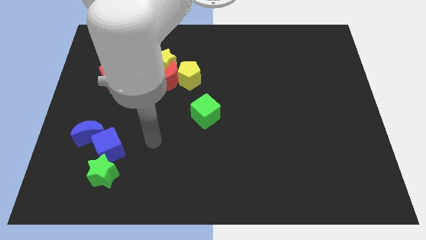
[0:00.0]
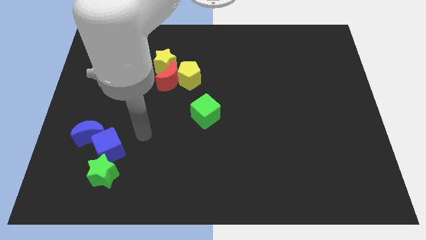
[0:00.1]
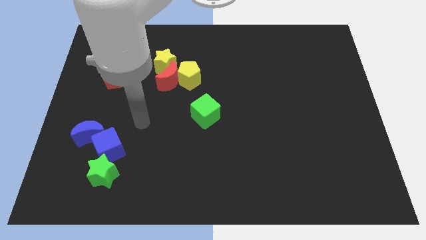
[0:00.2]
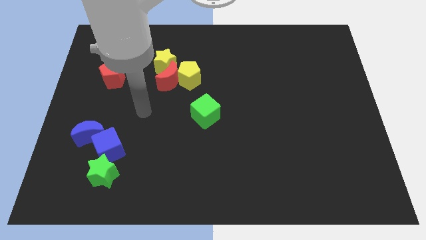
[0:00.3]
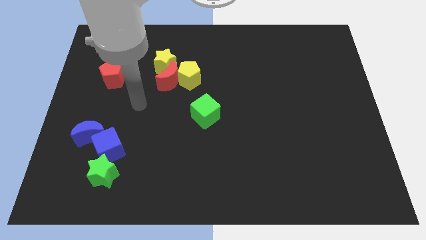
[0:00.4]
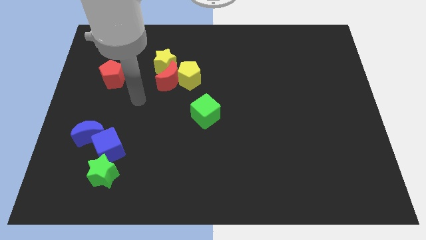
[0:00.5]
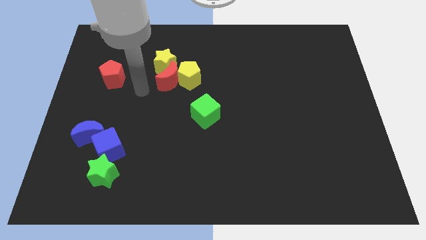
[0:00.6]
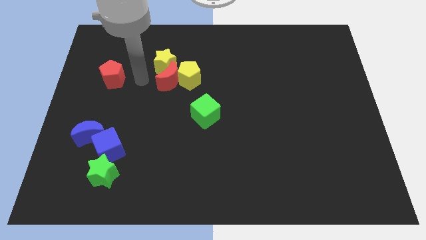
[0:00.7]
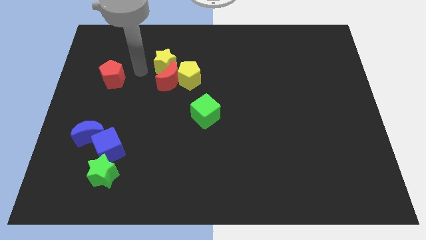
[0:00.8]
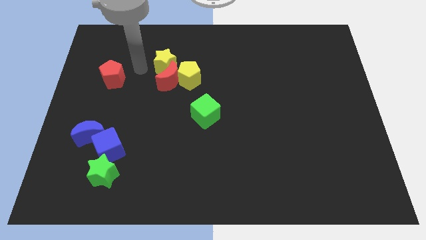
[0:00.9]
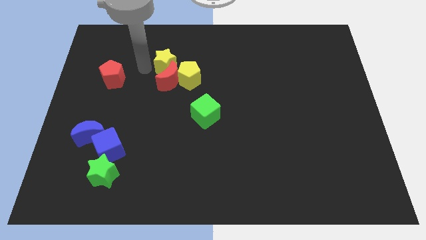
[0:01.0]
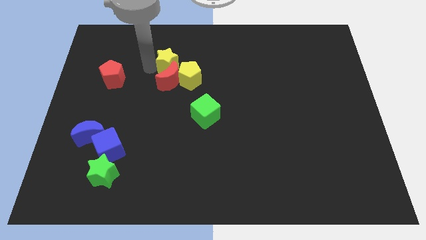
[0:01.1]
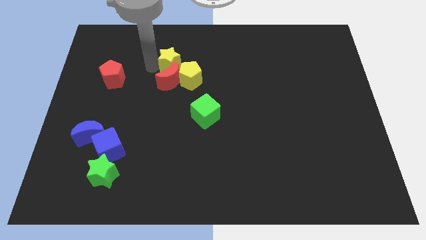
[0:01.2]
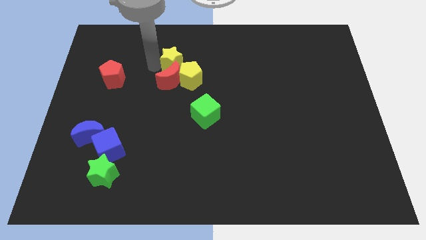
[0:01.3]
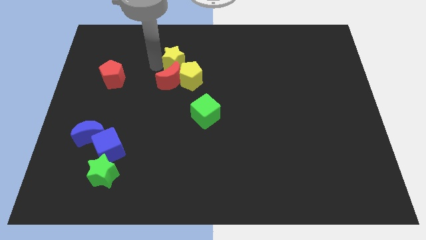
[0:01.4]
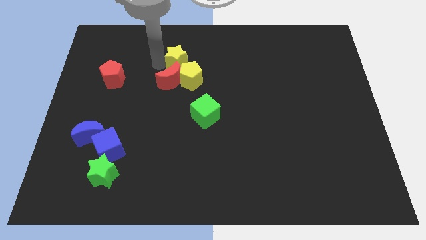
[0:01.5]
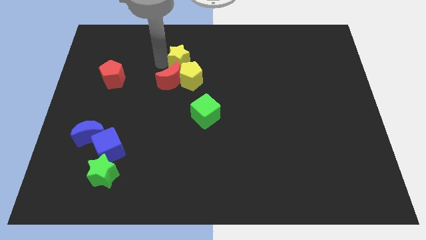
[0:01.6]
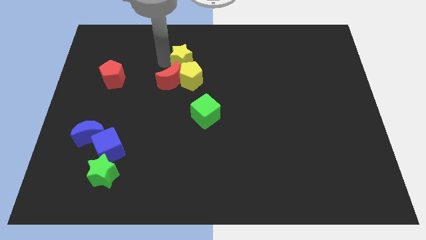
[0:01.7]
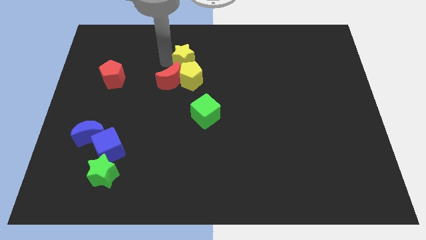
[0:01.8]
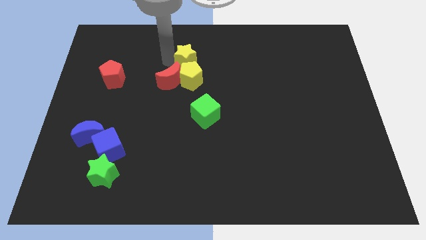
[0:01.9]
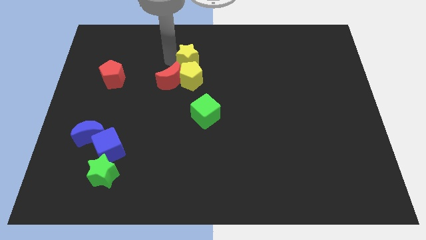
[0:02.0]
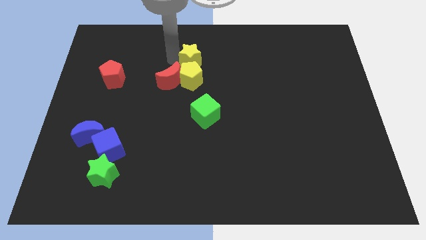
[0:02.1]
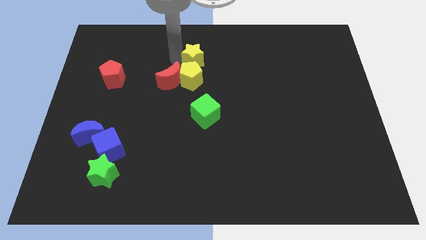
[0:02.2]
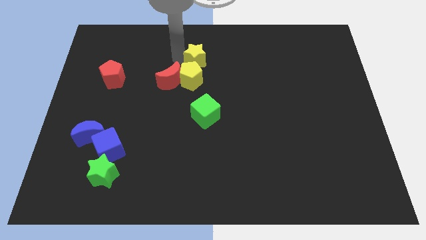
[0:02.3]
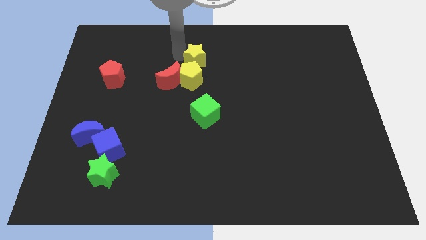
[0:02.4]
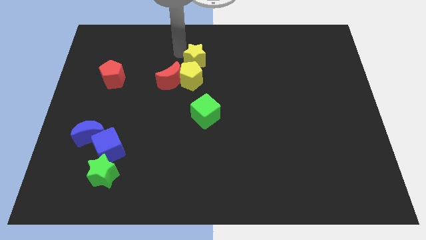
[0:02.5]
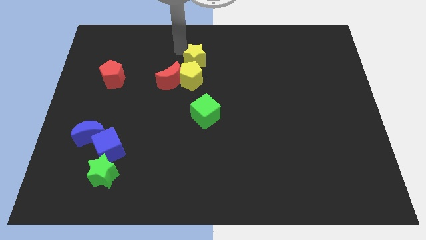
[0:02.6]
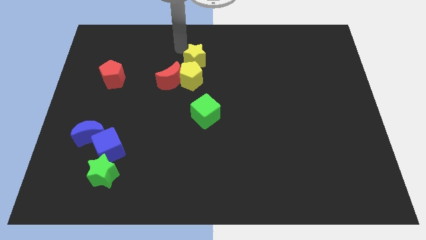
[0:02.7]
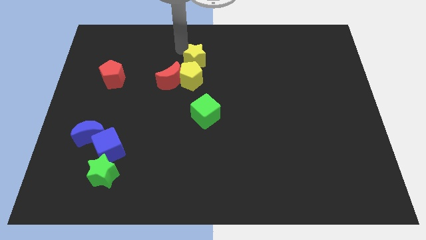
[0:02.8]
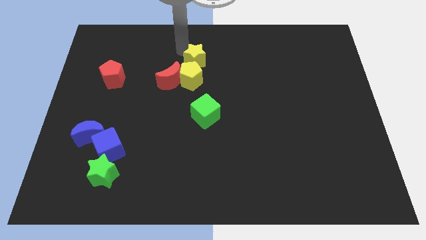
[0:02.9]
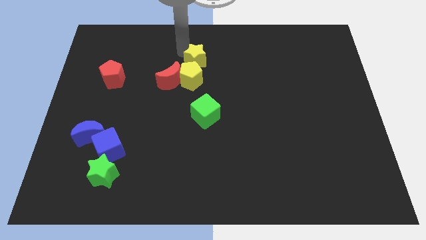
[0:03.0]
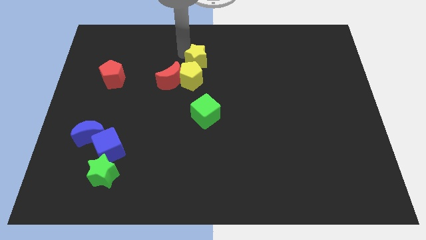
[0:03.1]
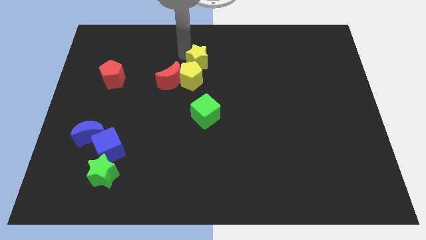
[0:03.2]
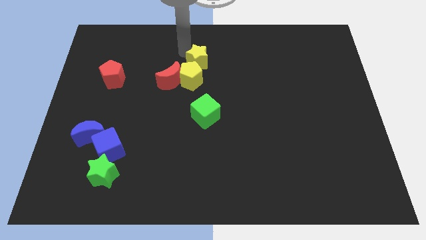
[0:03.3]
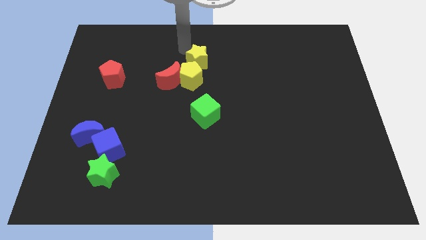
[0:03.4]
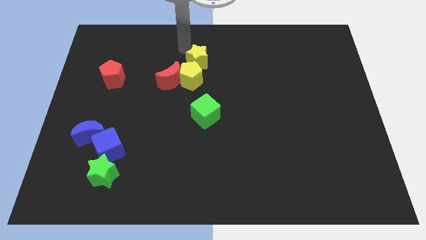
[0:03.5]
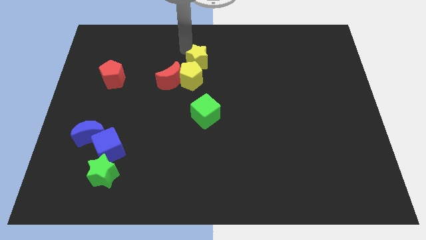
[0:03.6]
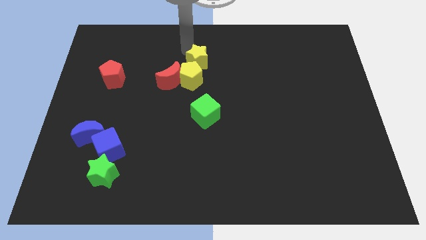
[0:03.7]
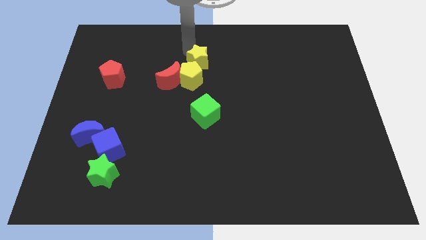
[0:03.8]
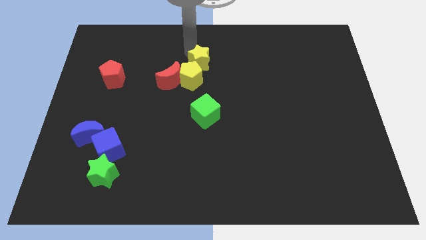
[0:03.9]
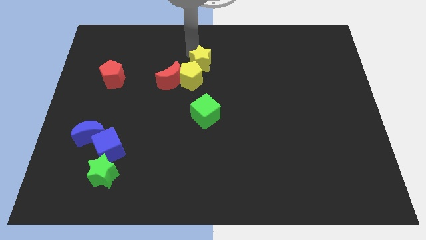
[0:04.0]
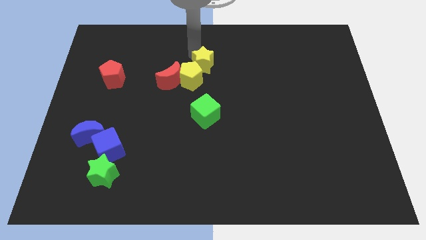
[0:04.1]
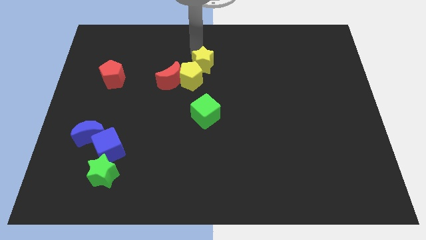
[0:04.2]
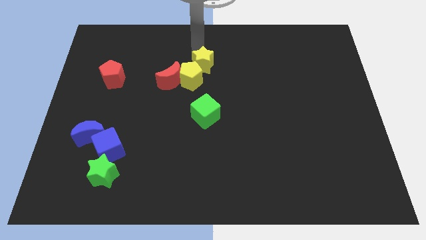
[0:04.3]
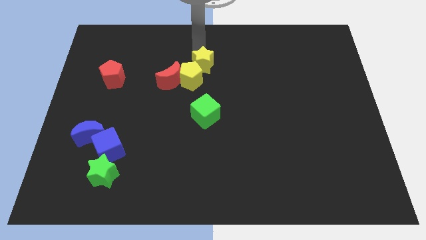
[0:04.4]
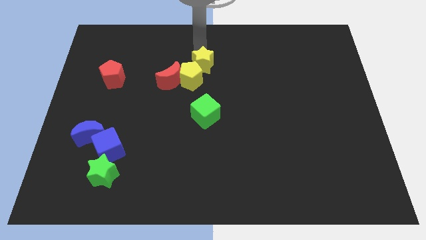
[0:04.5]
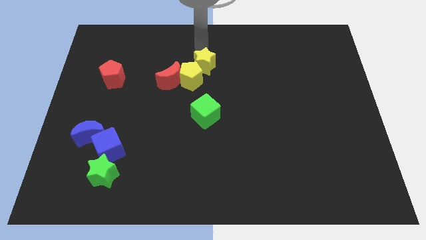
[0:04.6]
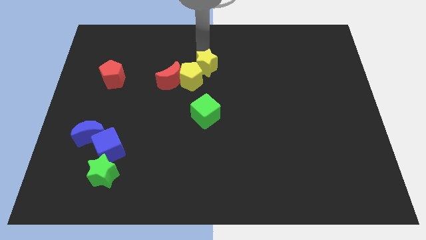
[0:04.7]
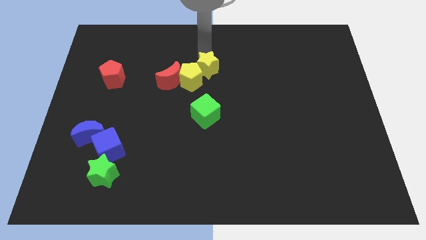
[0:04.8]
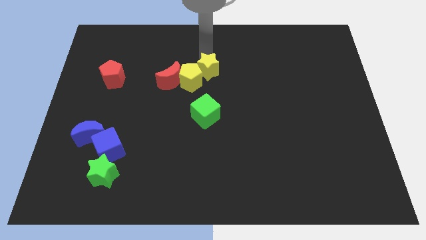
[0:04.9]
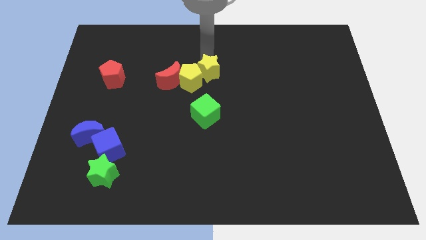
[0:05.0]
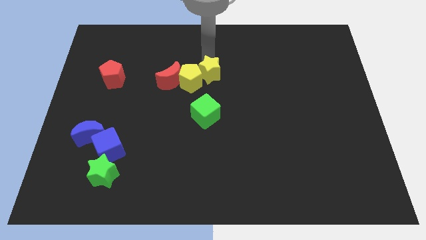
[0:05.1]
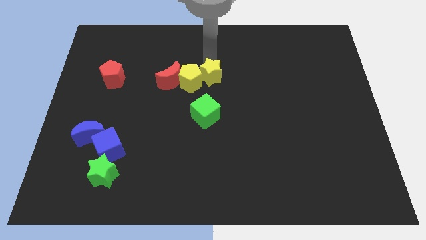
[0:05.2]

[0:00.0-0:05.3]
move the yellow star to the bottom right of the yellow pentagon

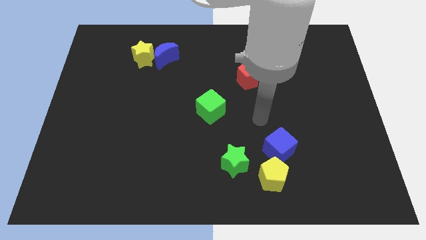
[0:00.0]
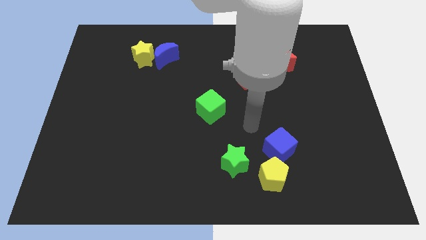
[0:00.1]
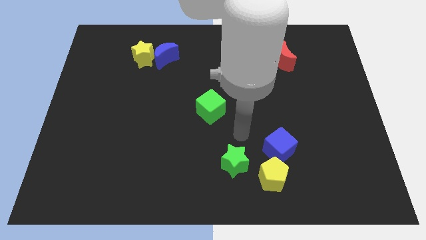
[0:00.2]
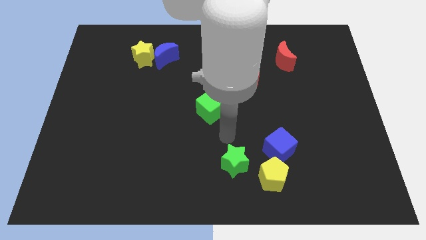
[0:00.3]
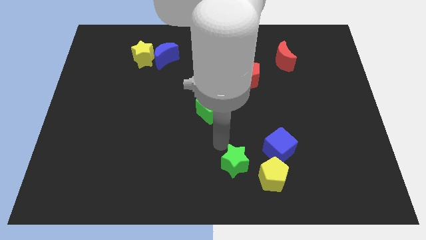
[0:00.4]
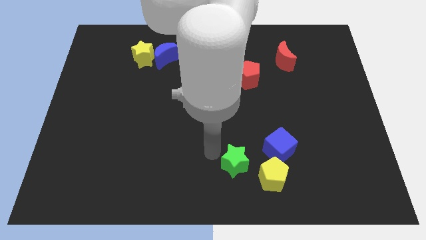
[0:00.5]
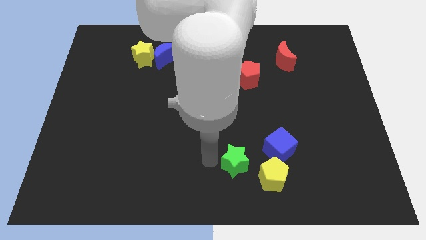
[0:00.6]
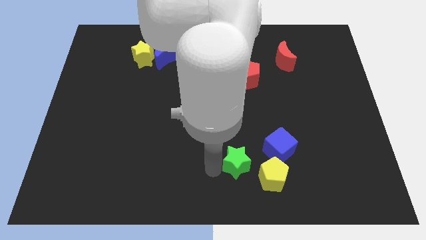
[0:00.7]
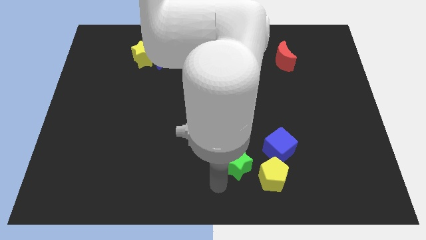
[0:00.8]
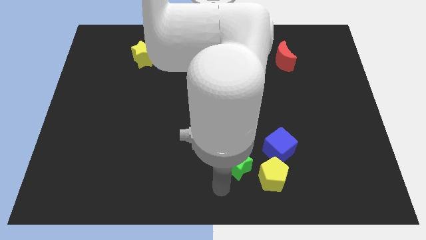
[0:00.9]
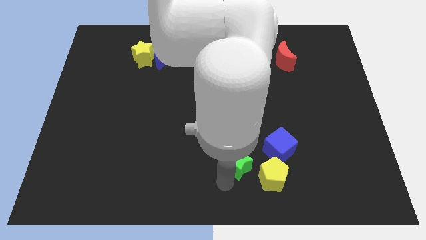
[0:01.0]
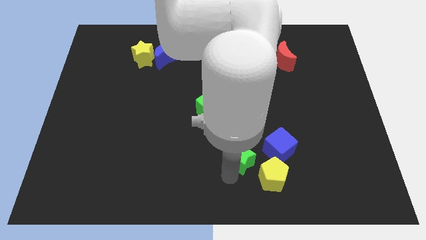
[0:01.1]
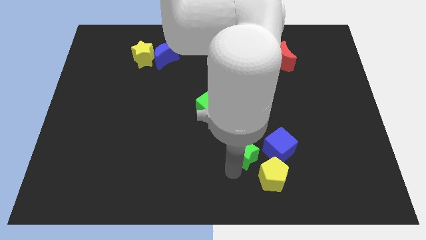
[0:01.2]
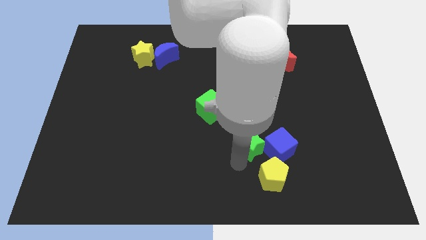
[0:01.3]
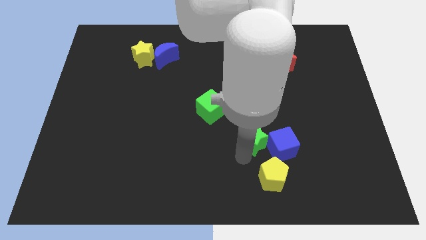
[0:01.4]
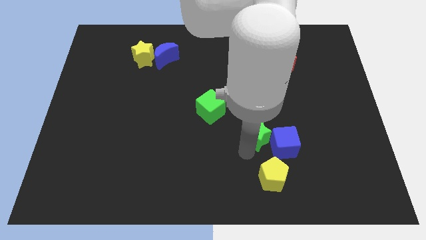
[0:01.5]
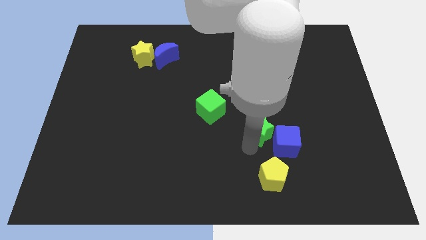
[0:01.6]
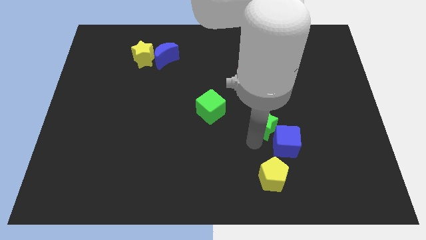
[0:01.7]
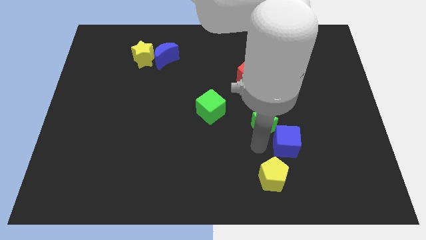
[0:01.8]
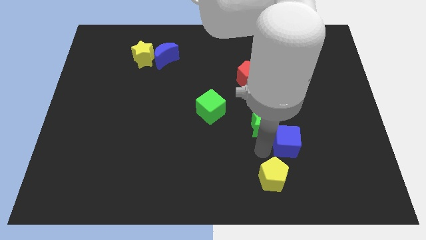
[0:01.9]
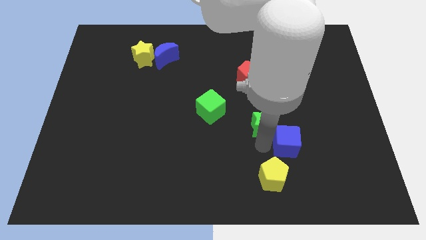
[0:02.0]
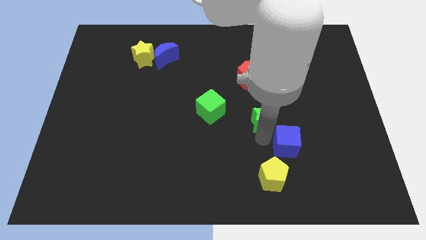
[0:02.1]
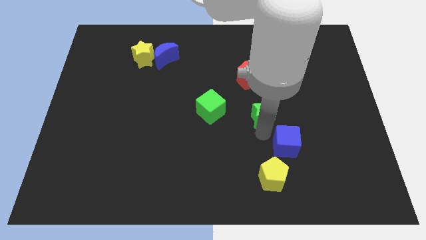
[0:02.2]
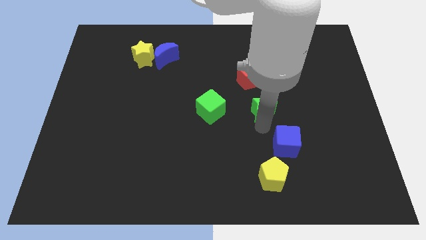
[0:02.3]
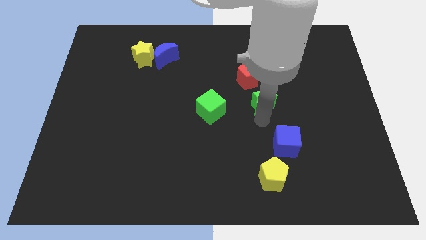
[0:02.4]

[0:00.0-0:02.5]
slide the green star to the bottom right side of the red pentagon
